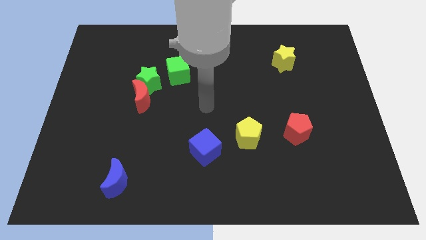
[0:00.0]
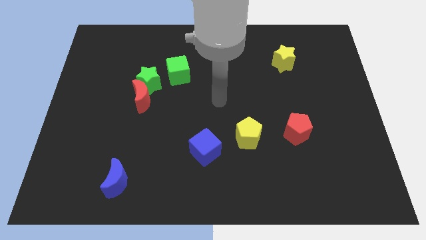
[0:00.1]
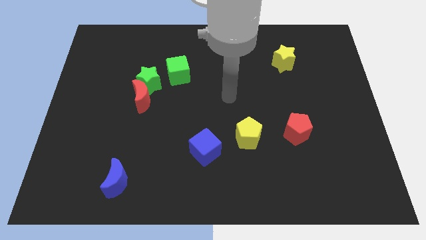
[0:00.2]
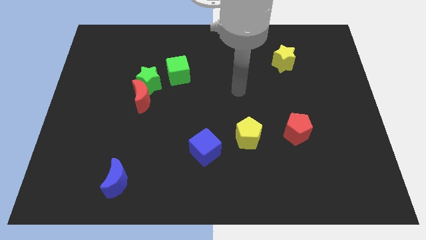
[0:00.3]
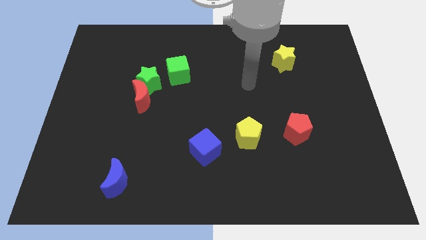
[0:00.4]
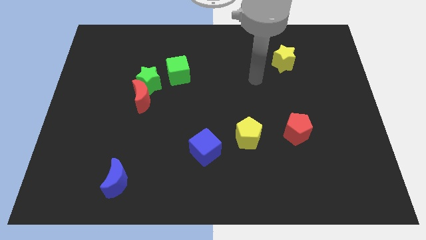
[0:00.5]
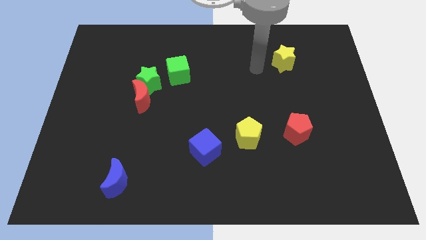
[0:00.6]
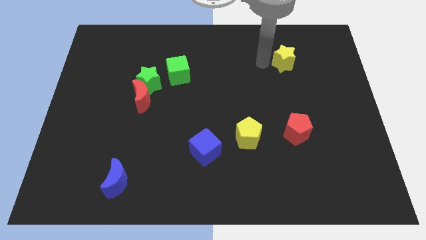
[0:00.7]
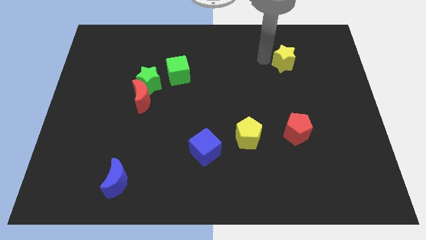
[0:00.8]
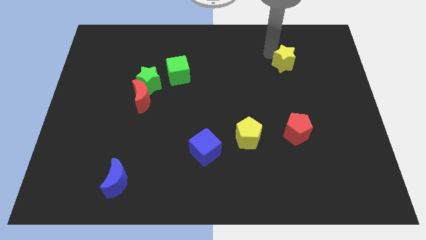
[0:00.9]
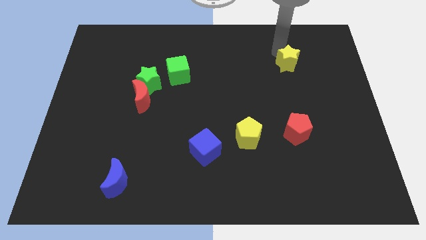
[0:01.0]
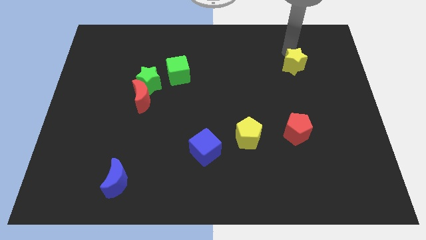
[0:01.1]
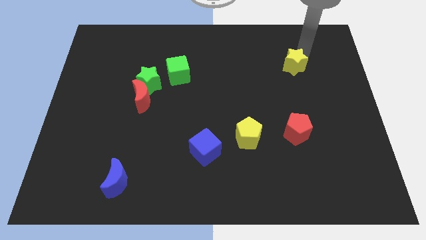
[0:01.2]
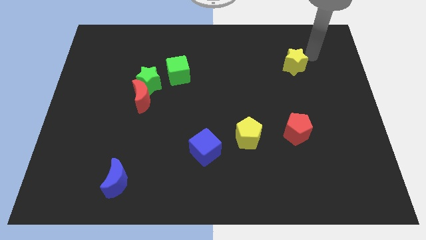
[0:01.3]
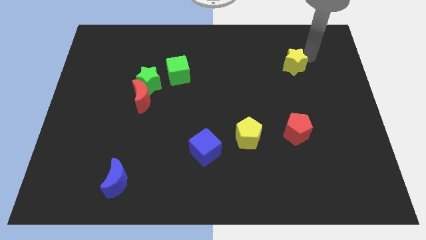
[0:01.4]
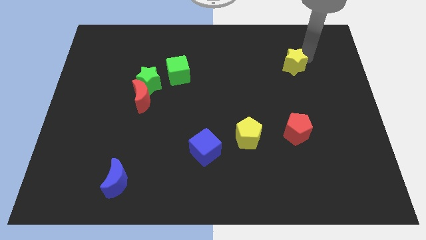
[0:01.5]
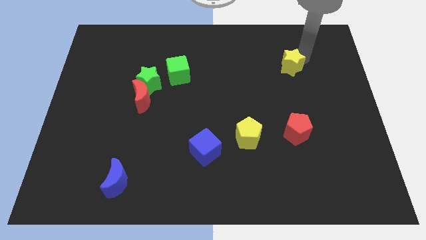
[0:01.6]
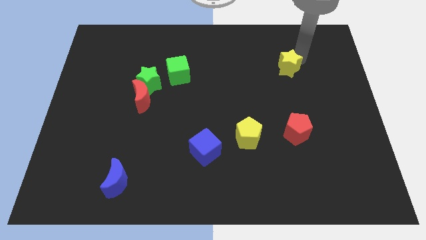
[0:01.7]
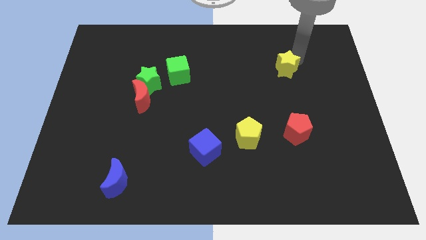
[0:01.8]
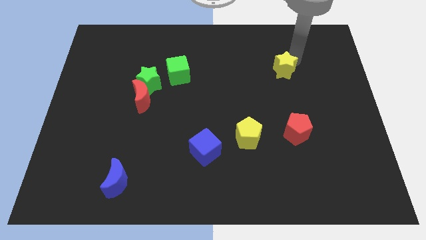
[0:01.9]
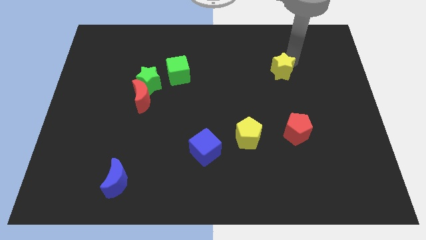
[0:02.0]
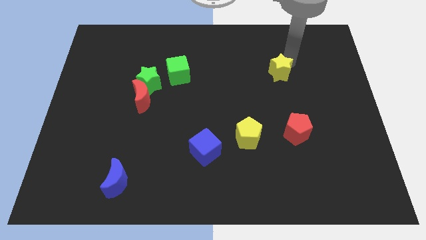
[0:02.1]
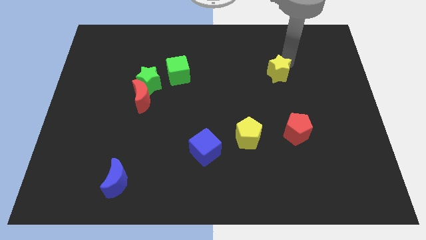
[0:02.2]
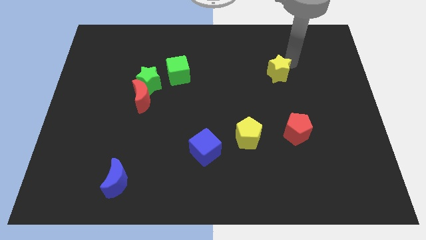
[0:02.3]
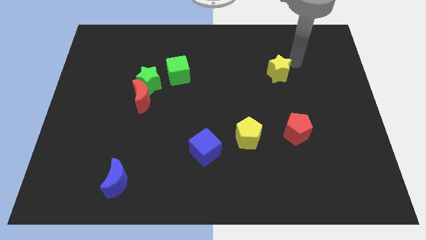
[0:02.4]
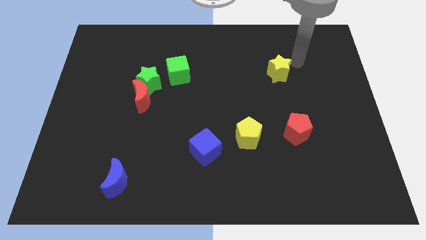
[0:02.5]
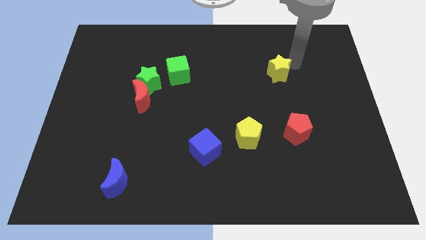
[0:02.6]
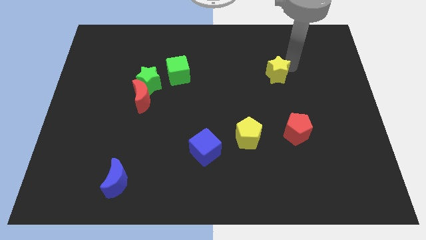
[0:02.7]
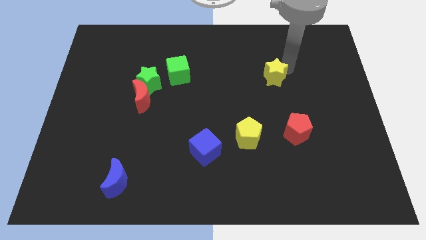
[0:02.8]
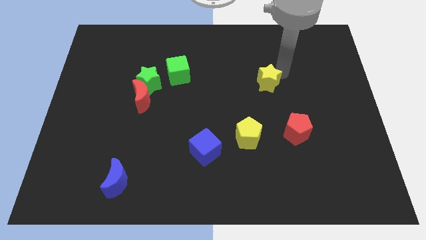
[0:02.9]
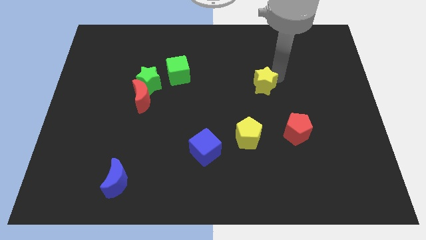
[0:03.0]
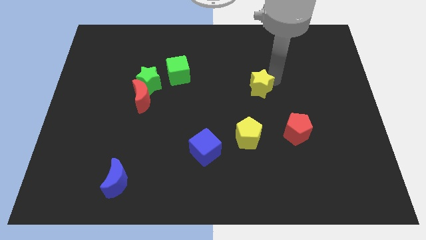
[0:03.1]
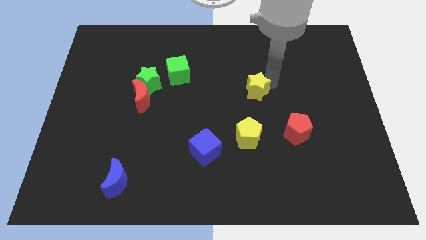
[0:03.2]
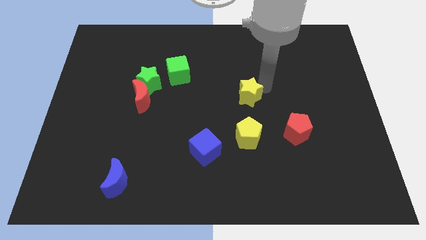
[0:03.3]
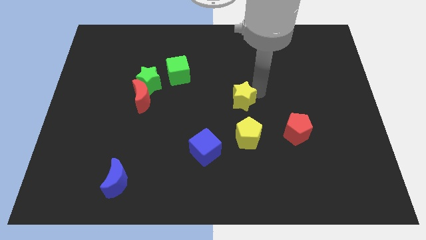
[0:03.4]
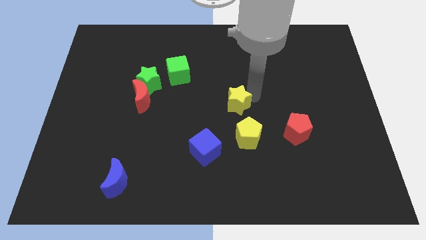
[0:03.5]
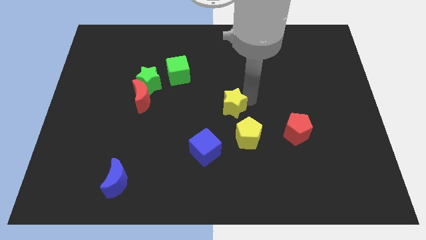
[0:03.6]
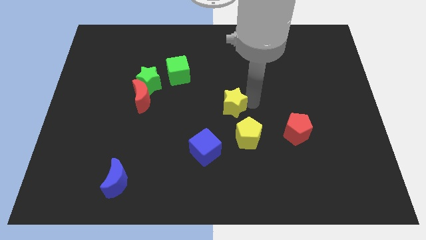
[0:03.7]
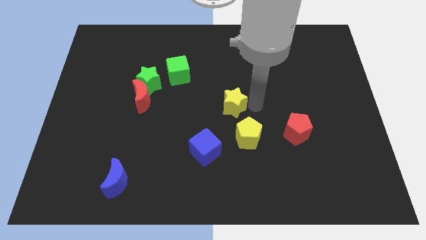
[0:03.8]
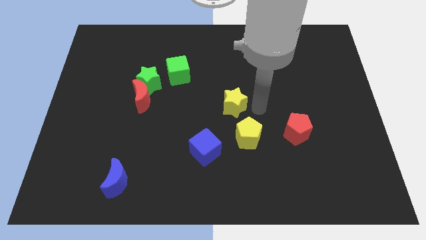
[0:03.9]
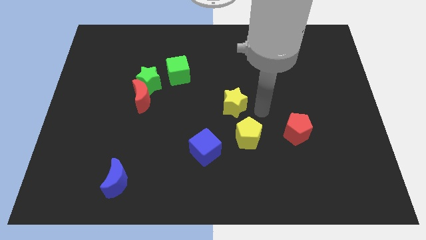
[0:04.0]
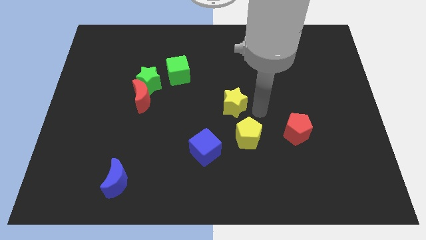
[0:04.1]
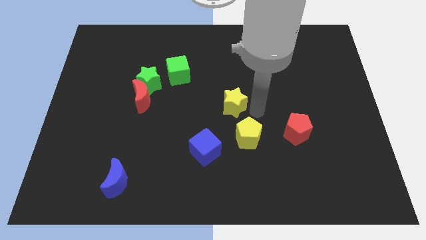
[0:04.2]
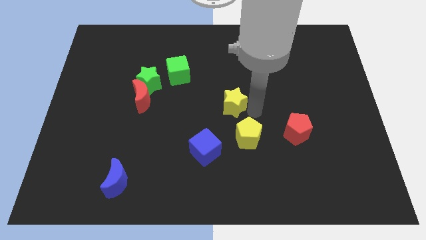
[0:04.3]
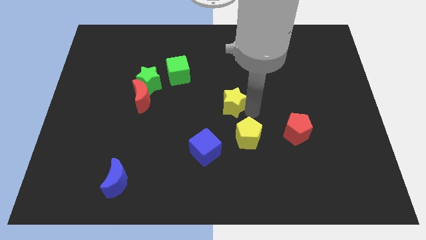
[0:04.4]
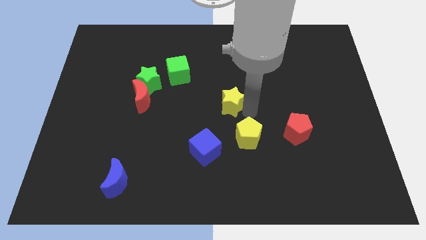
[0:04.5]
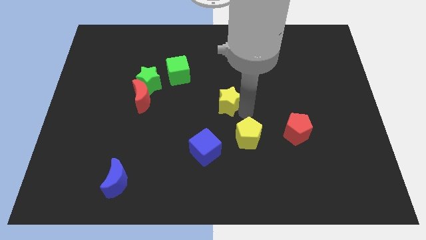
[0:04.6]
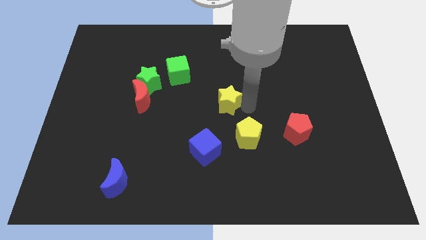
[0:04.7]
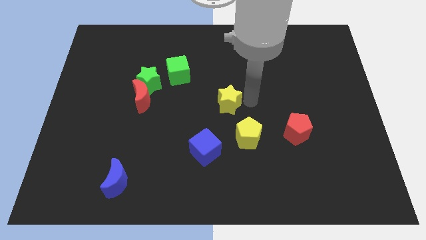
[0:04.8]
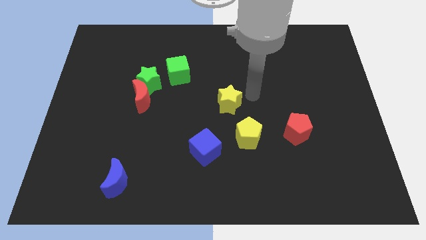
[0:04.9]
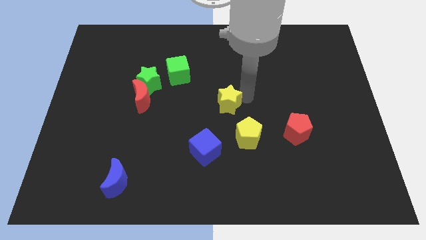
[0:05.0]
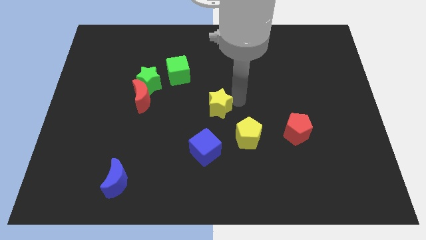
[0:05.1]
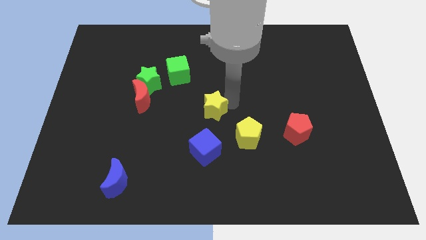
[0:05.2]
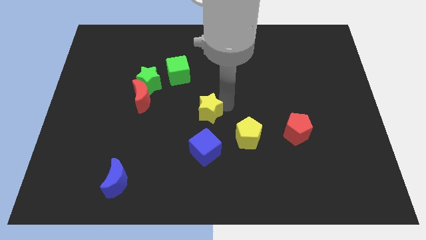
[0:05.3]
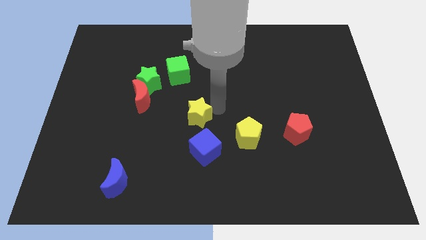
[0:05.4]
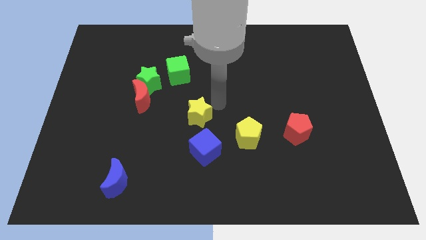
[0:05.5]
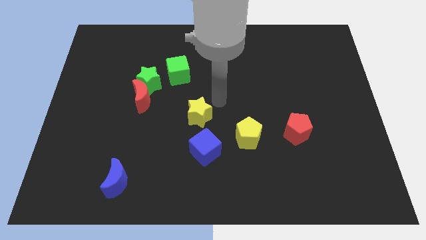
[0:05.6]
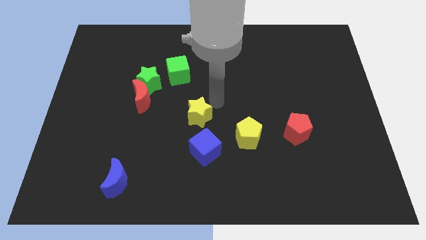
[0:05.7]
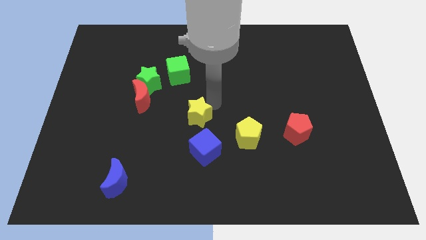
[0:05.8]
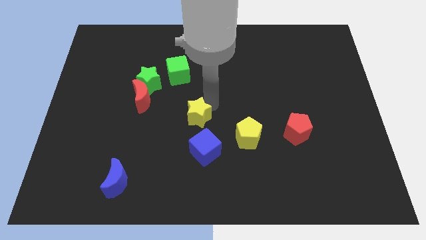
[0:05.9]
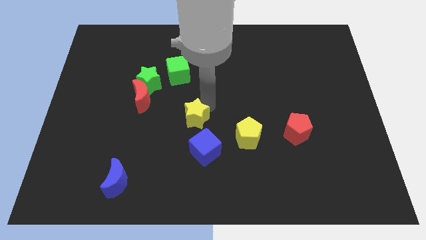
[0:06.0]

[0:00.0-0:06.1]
put the yellow star to the top left of the blue cube

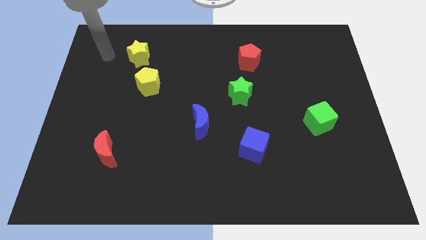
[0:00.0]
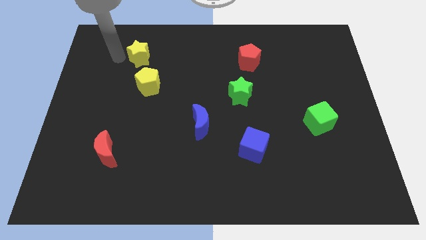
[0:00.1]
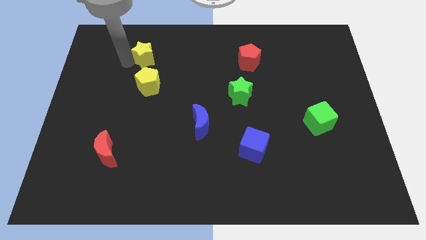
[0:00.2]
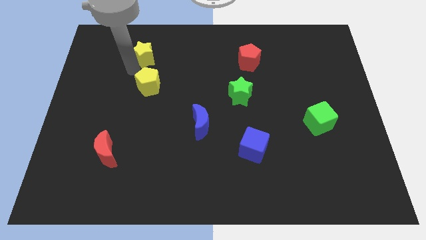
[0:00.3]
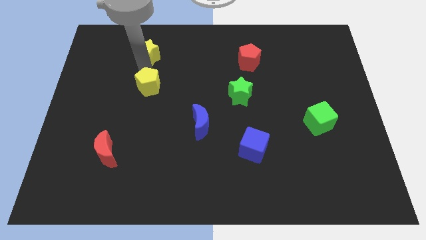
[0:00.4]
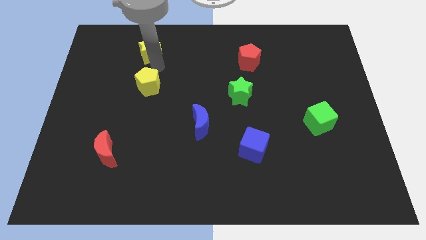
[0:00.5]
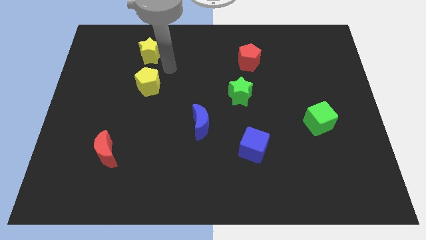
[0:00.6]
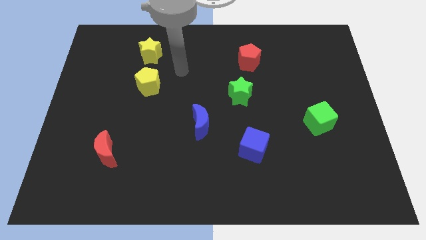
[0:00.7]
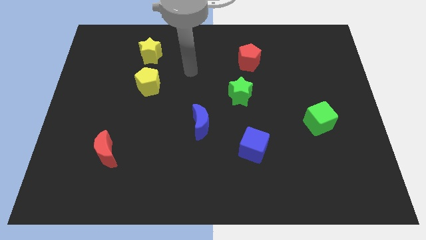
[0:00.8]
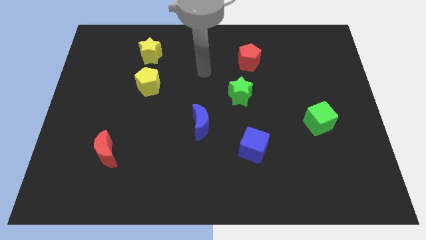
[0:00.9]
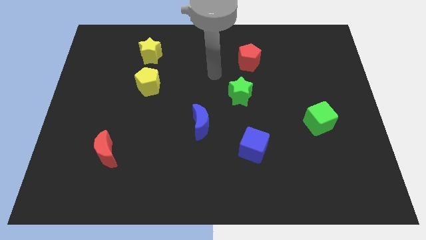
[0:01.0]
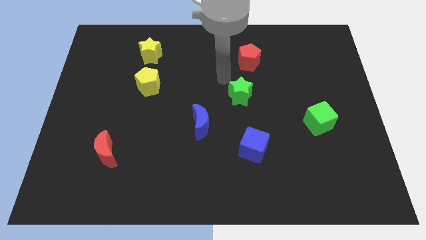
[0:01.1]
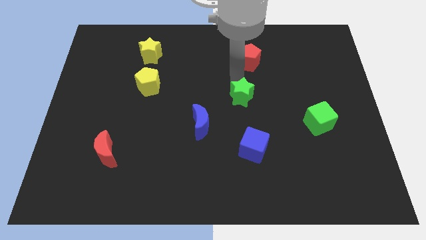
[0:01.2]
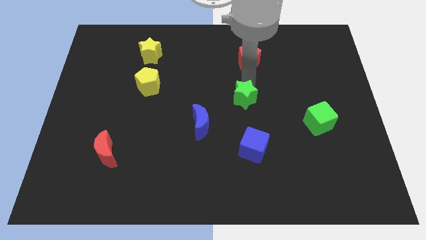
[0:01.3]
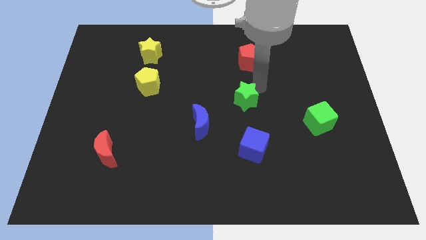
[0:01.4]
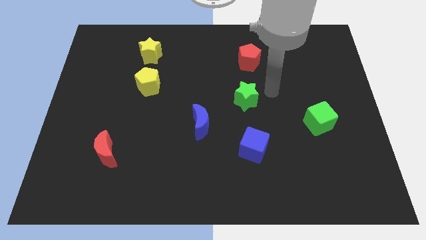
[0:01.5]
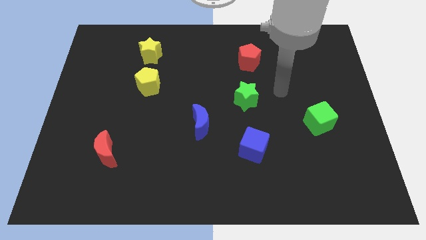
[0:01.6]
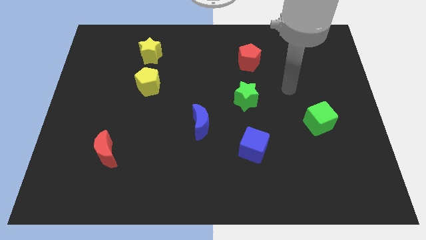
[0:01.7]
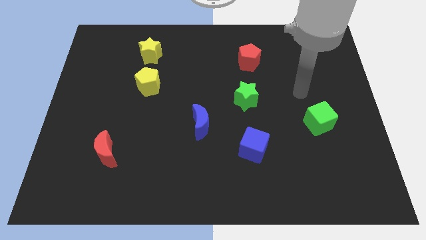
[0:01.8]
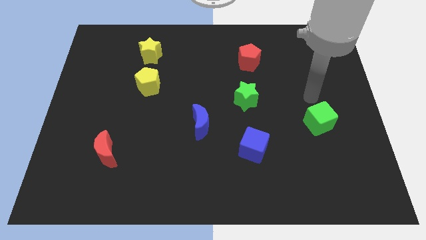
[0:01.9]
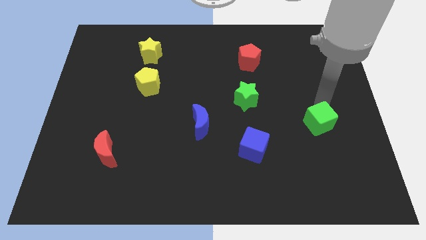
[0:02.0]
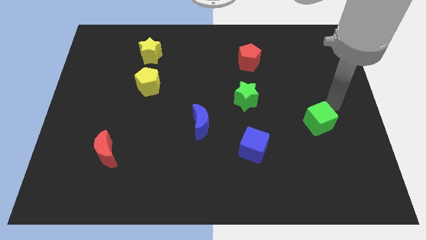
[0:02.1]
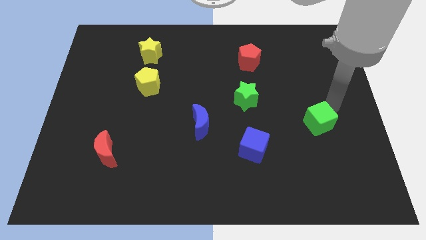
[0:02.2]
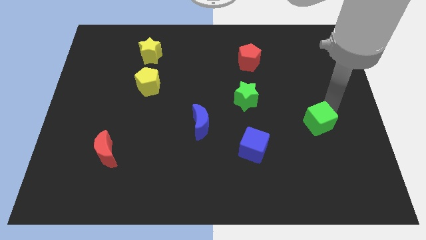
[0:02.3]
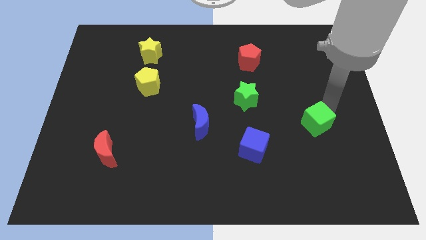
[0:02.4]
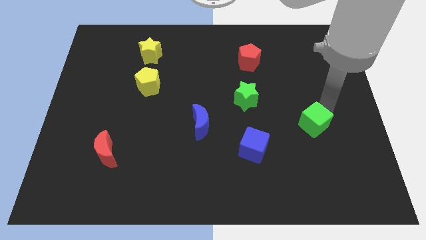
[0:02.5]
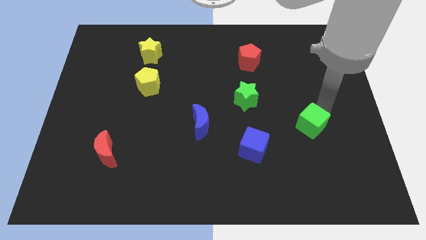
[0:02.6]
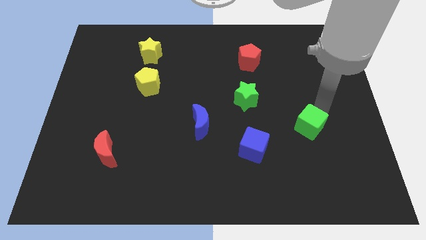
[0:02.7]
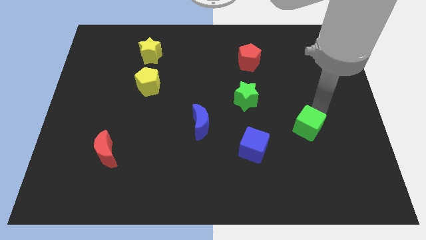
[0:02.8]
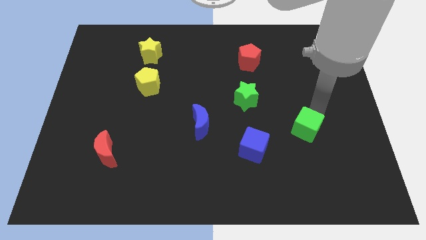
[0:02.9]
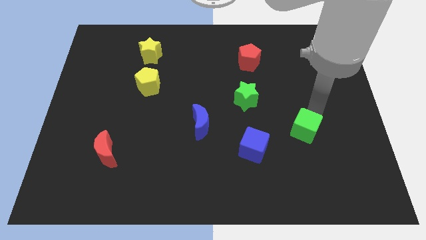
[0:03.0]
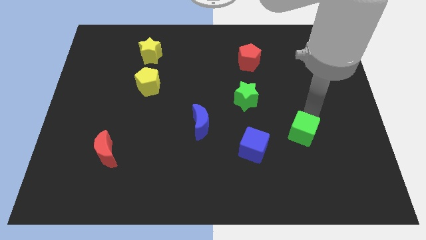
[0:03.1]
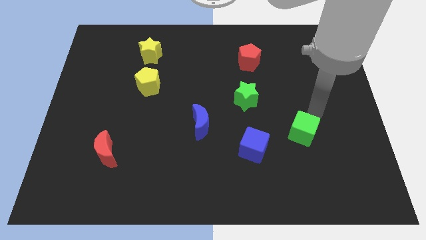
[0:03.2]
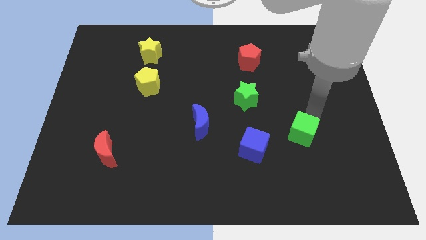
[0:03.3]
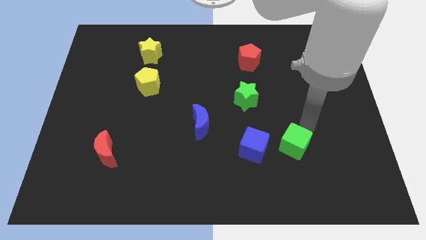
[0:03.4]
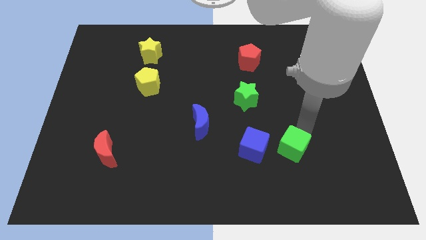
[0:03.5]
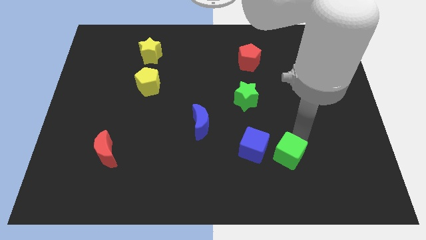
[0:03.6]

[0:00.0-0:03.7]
slide the green cube to the bottom right side of the blue cube
